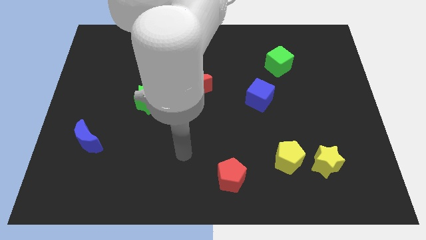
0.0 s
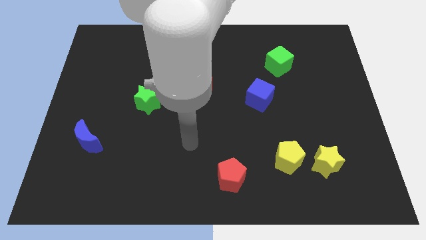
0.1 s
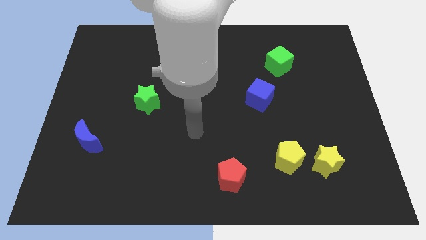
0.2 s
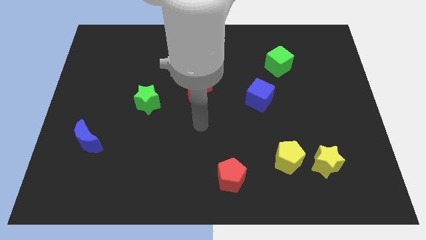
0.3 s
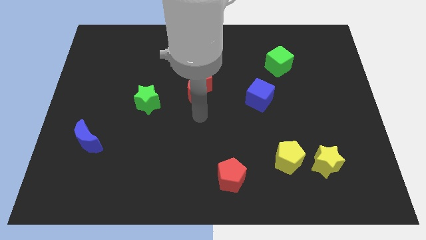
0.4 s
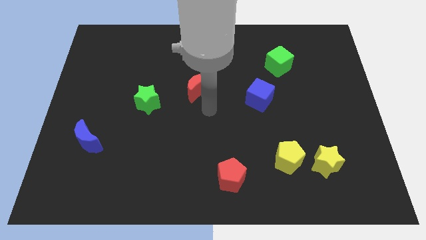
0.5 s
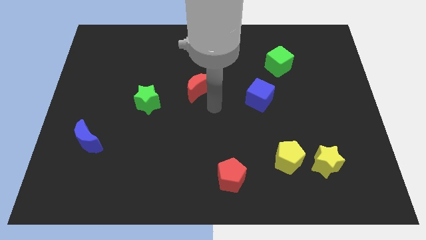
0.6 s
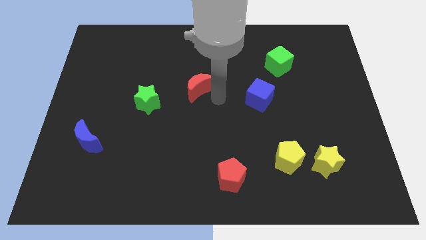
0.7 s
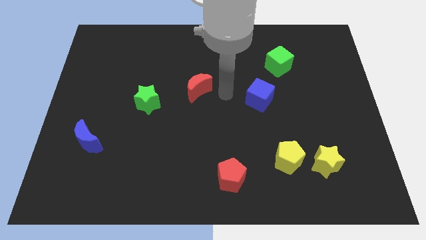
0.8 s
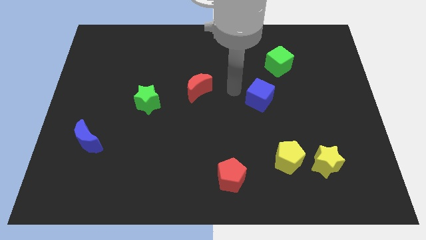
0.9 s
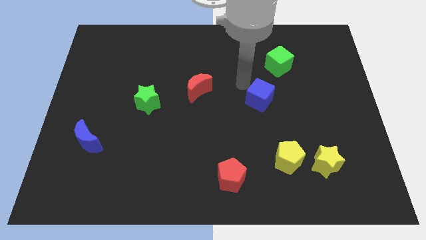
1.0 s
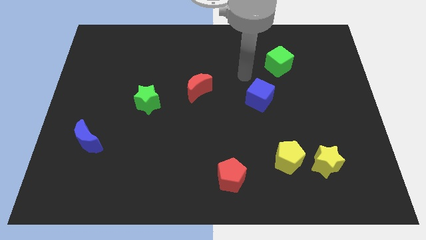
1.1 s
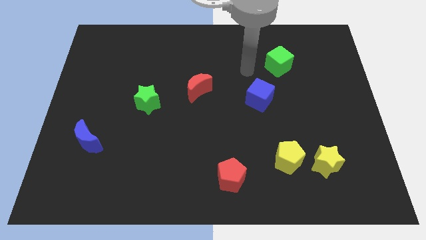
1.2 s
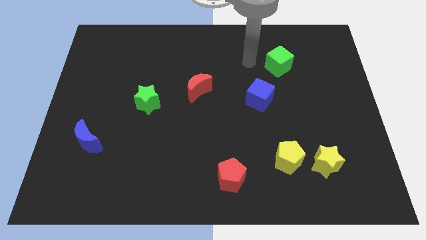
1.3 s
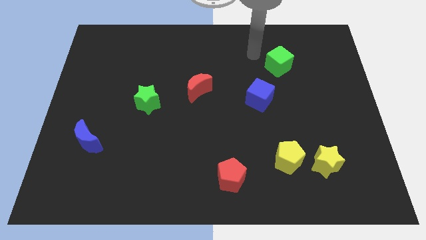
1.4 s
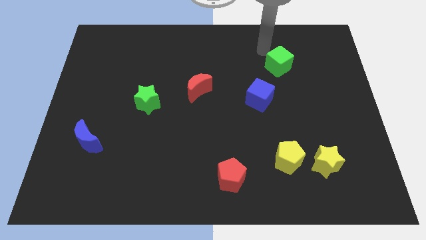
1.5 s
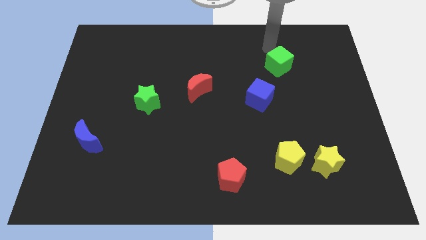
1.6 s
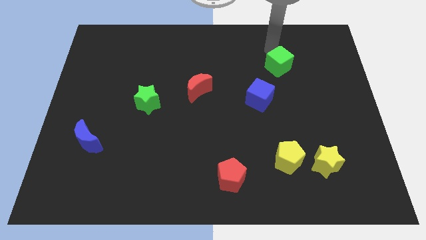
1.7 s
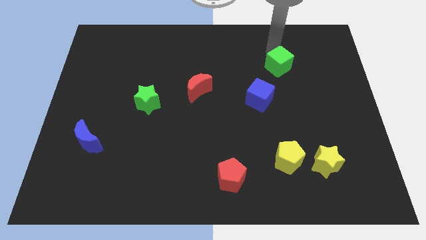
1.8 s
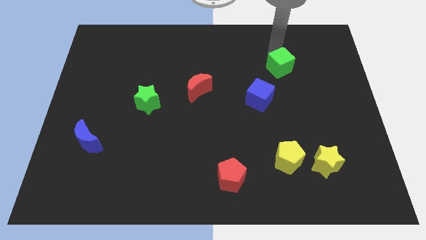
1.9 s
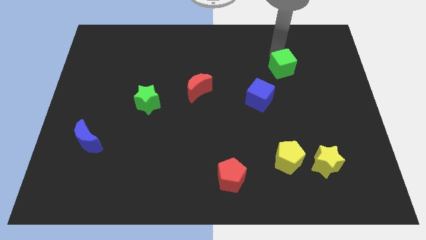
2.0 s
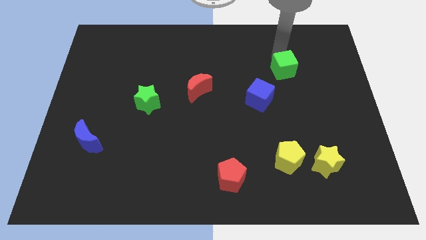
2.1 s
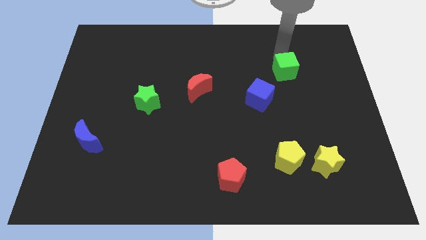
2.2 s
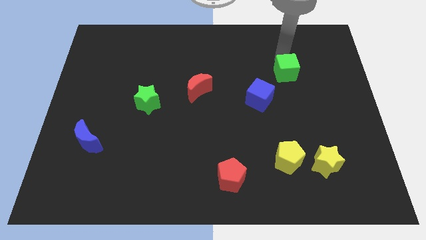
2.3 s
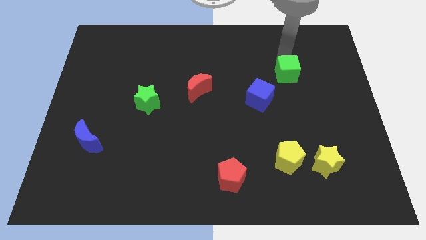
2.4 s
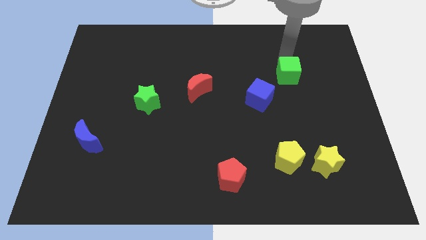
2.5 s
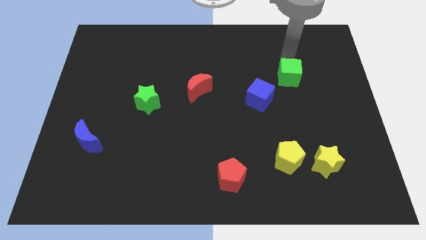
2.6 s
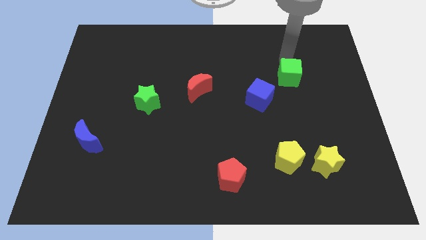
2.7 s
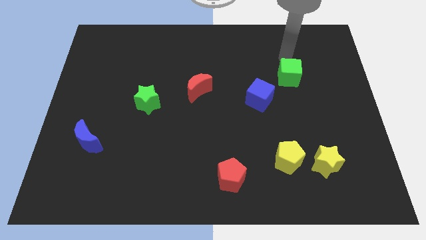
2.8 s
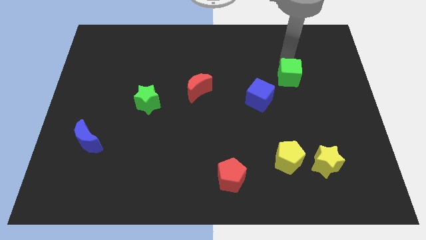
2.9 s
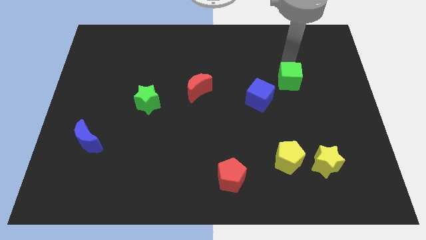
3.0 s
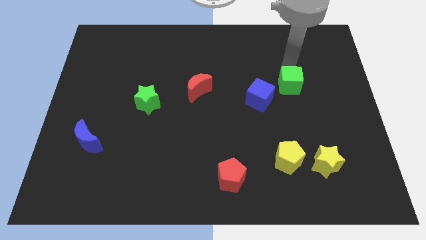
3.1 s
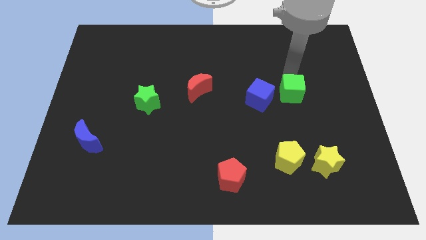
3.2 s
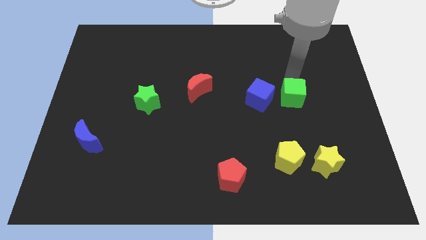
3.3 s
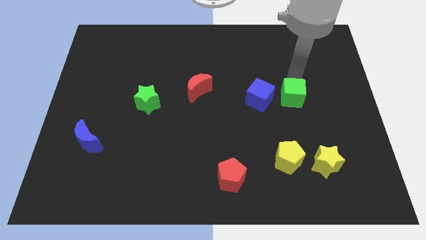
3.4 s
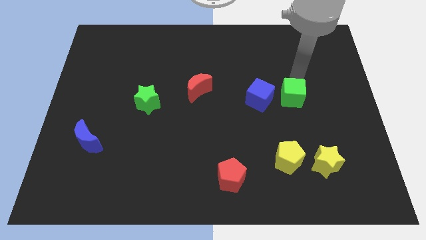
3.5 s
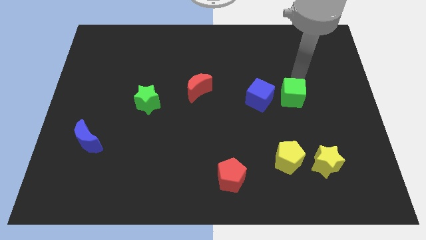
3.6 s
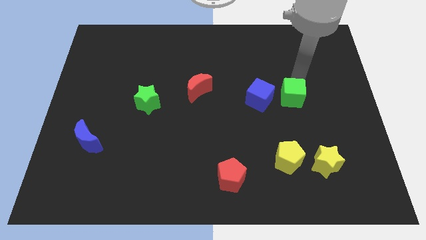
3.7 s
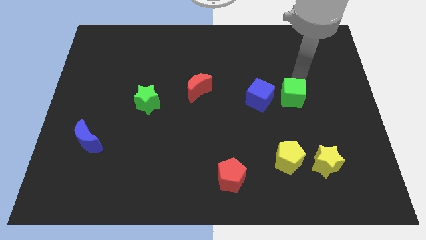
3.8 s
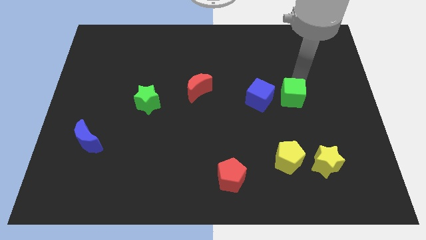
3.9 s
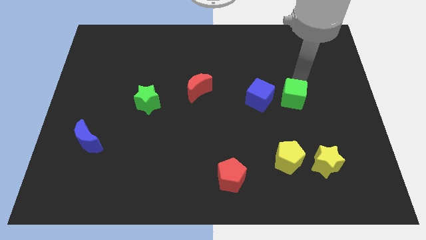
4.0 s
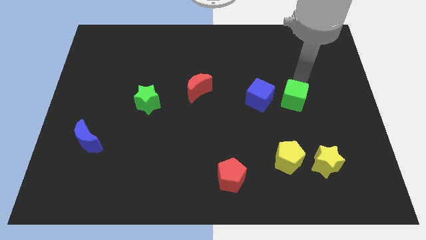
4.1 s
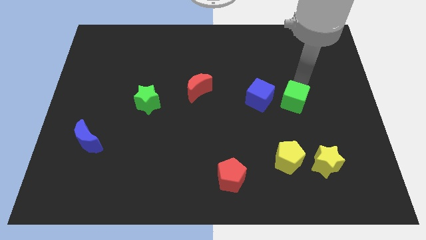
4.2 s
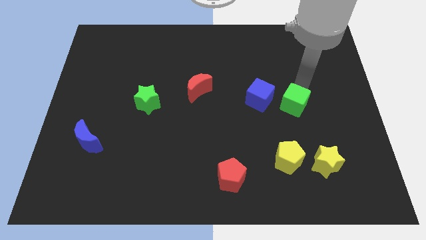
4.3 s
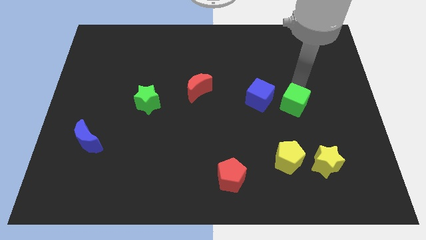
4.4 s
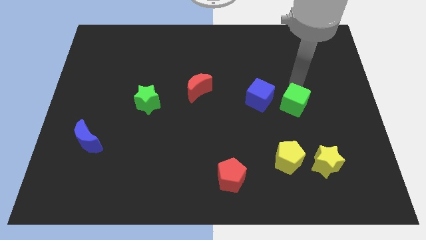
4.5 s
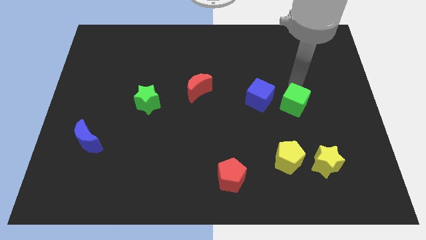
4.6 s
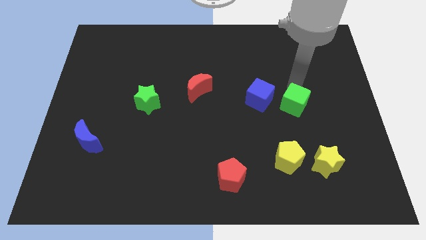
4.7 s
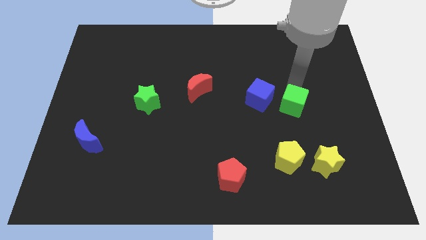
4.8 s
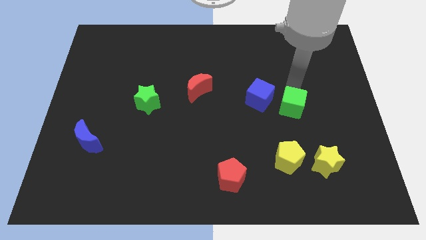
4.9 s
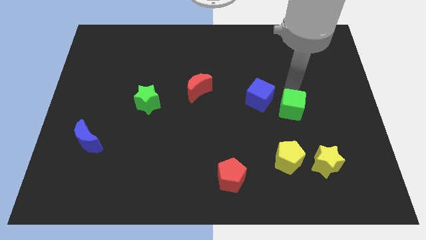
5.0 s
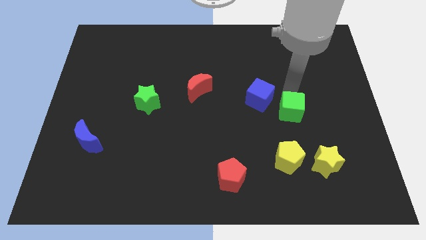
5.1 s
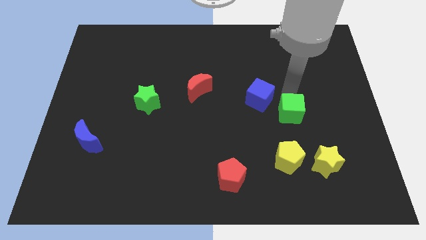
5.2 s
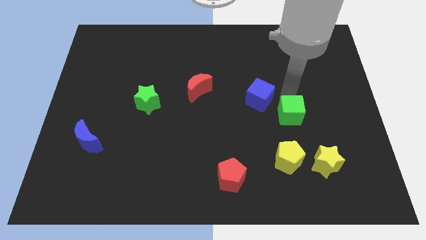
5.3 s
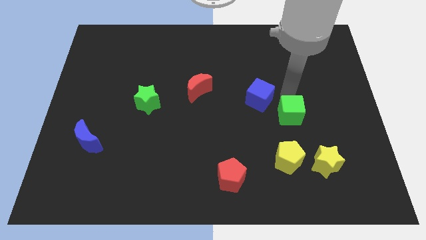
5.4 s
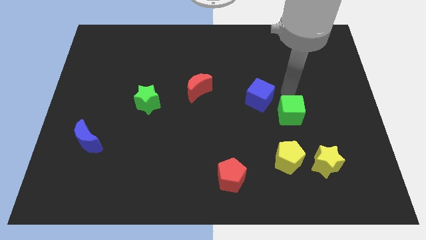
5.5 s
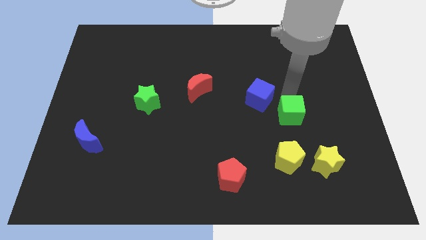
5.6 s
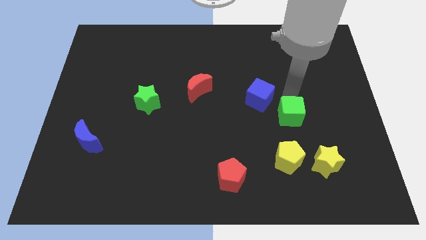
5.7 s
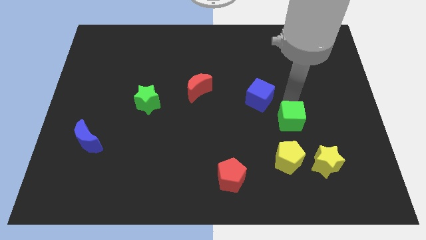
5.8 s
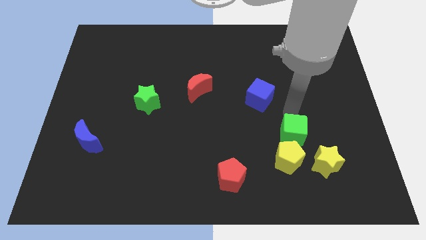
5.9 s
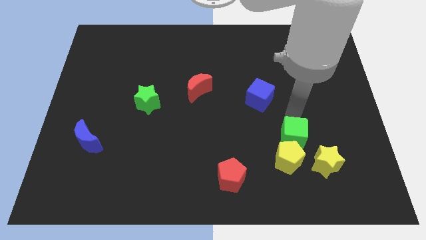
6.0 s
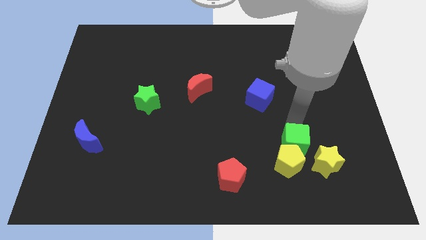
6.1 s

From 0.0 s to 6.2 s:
put the green cube towards the yellow pentagon

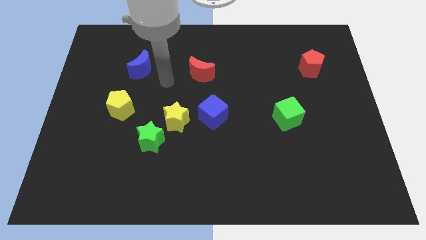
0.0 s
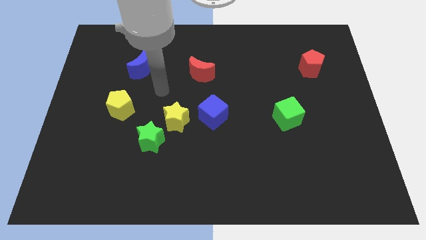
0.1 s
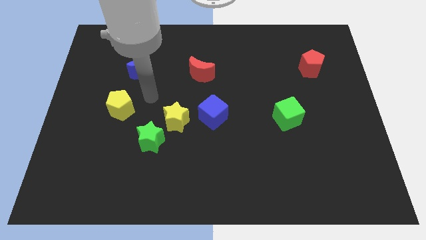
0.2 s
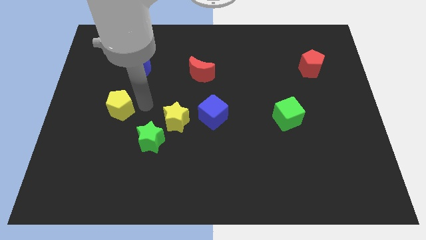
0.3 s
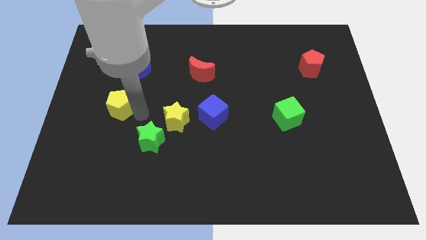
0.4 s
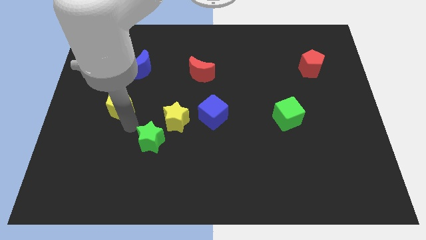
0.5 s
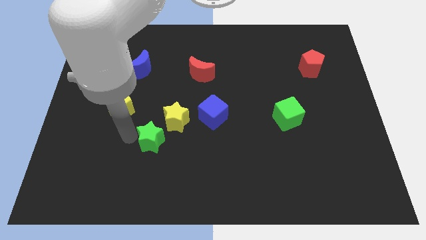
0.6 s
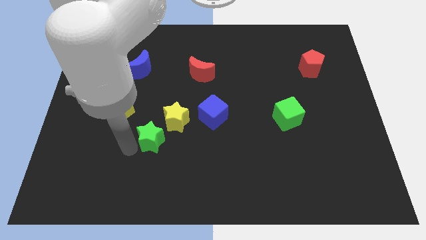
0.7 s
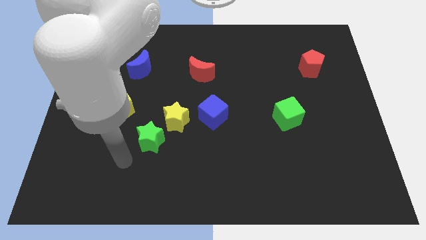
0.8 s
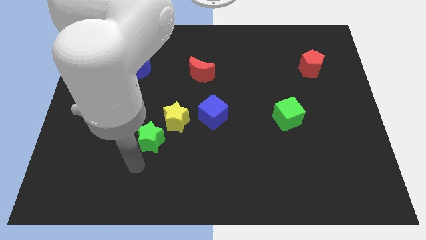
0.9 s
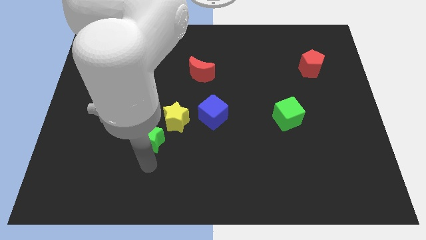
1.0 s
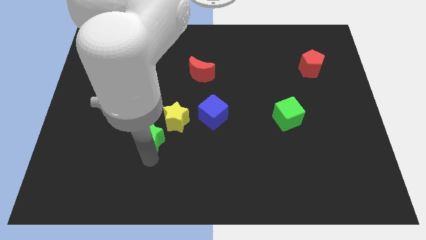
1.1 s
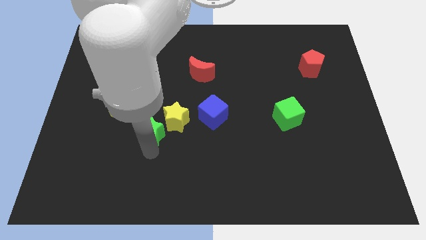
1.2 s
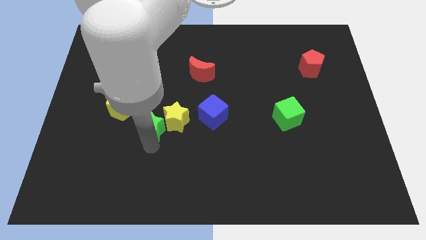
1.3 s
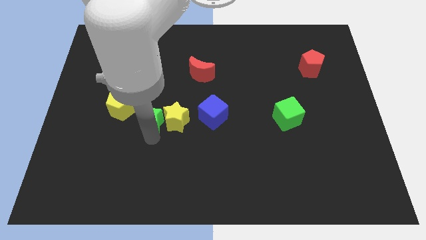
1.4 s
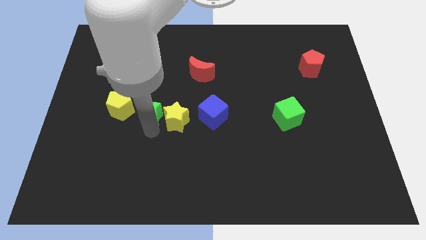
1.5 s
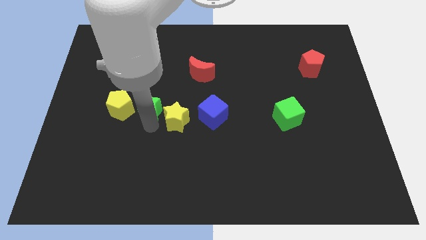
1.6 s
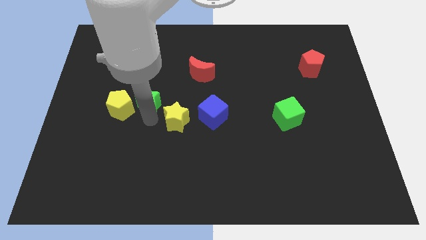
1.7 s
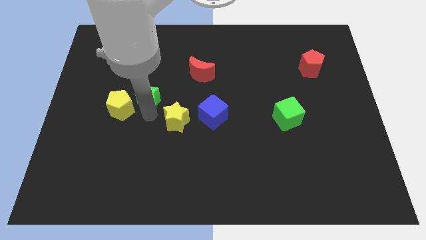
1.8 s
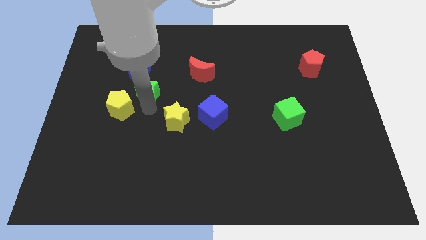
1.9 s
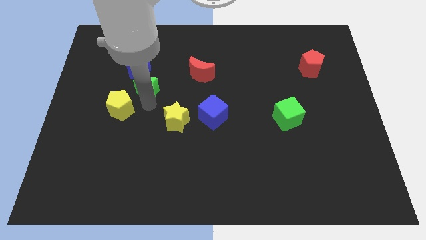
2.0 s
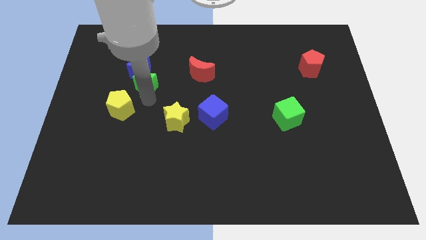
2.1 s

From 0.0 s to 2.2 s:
move the green star towards the blue moon
